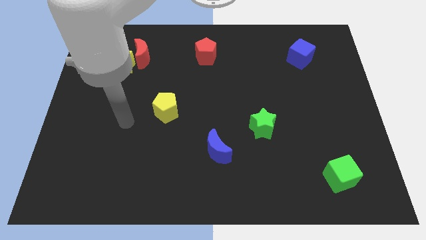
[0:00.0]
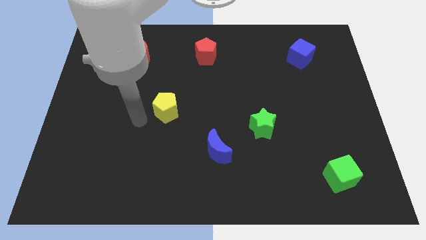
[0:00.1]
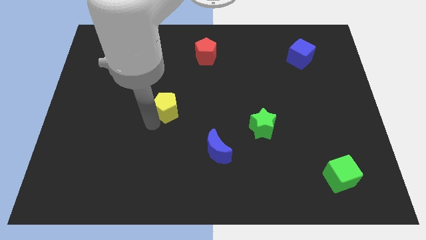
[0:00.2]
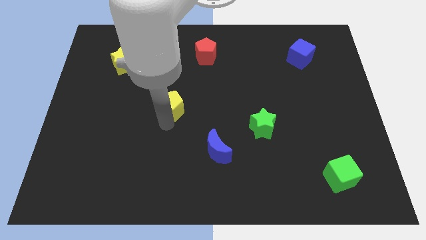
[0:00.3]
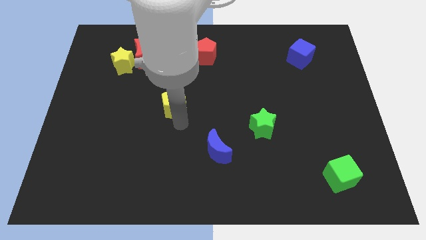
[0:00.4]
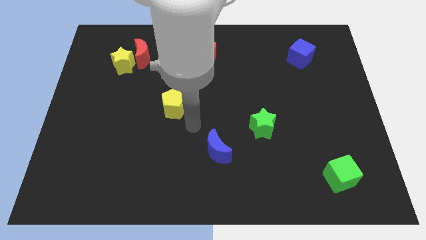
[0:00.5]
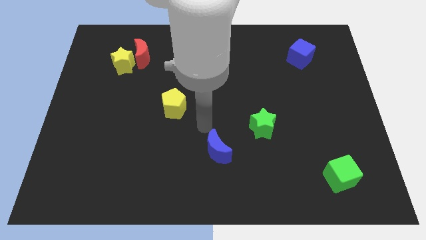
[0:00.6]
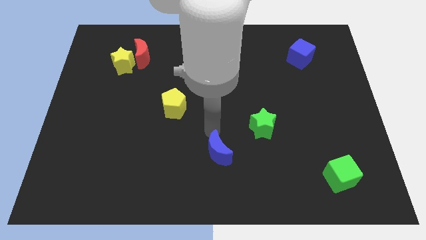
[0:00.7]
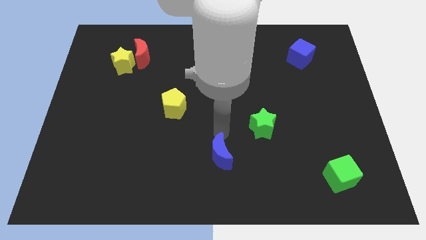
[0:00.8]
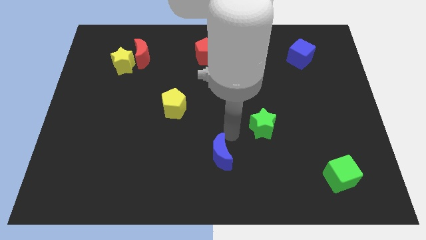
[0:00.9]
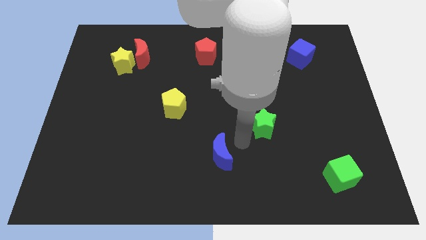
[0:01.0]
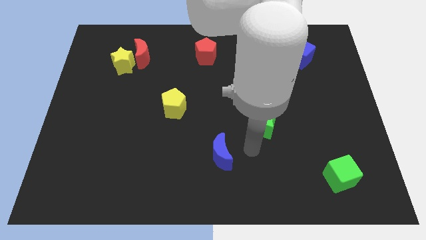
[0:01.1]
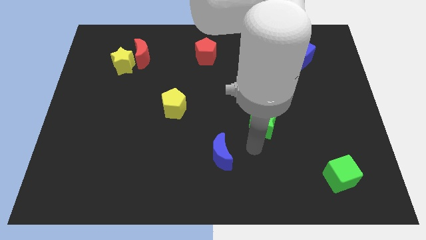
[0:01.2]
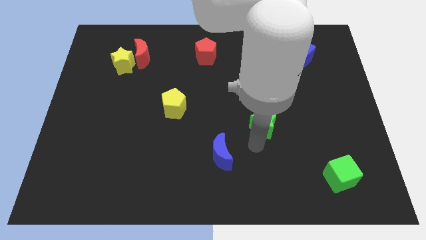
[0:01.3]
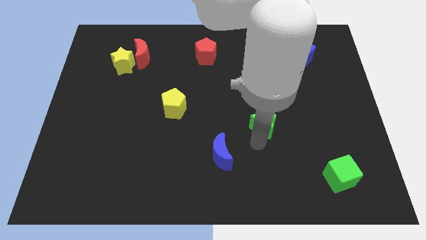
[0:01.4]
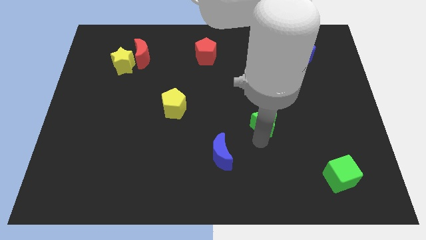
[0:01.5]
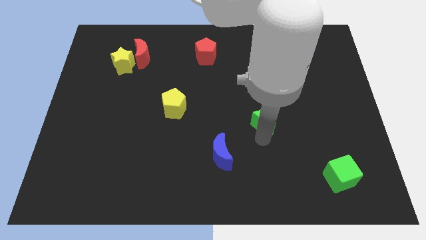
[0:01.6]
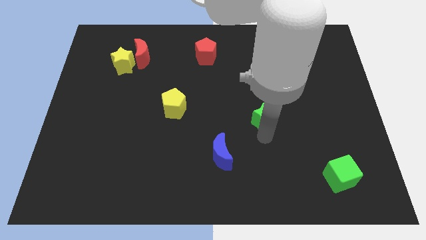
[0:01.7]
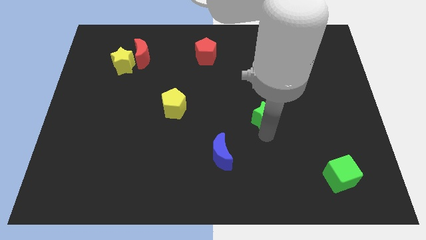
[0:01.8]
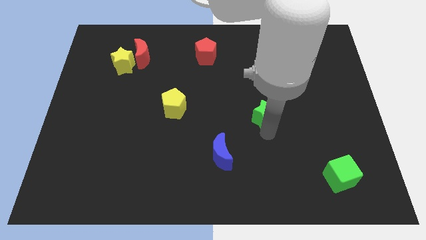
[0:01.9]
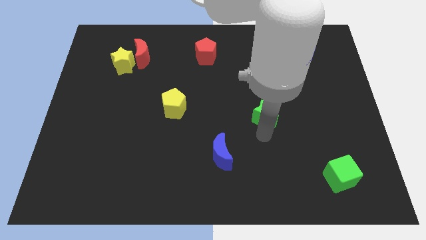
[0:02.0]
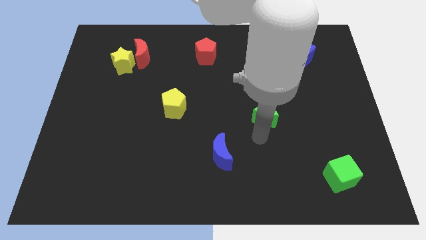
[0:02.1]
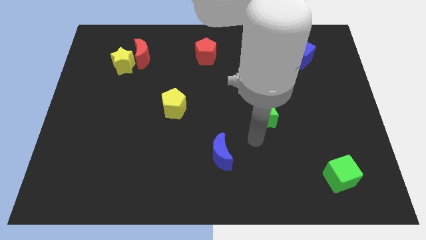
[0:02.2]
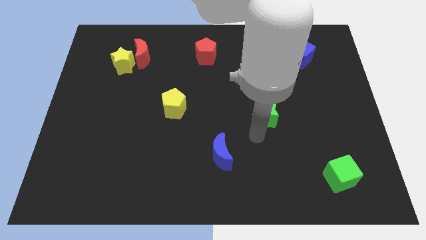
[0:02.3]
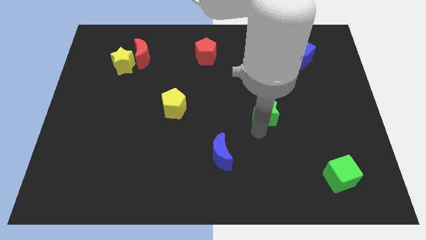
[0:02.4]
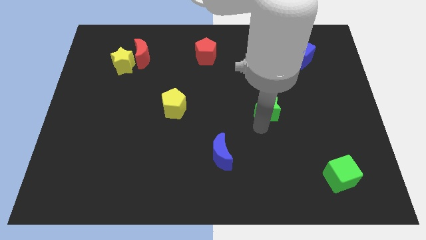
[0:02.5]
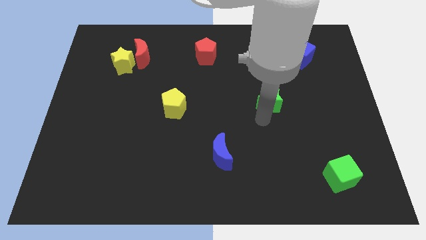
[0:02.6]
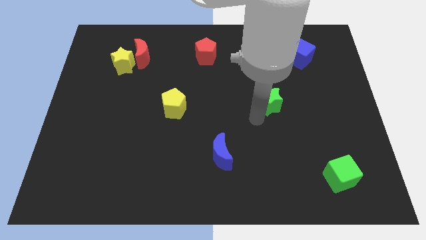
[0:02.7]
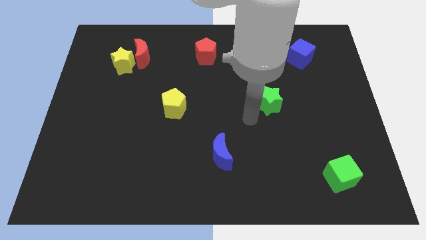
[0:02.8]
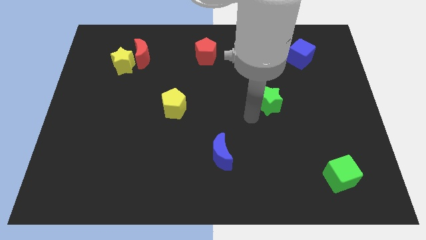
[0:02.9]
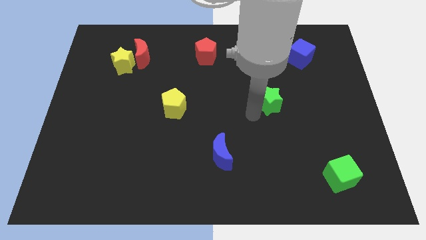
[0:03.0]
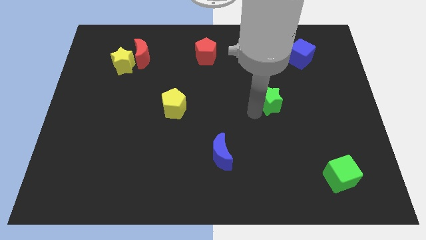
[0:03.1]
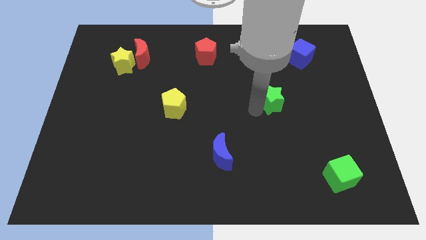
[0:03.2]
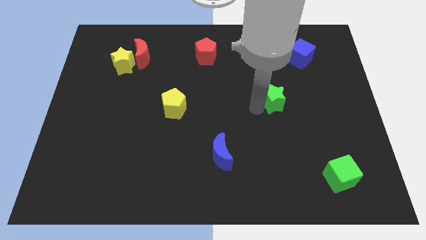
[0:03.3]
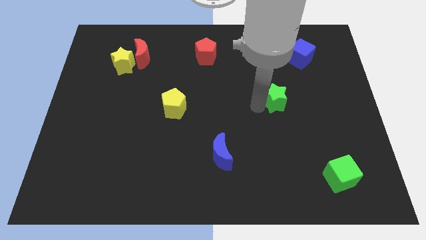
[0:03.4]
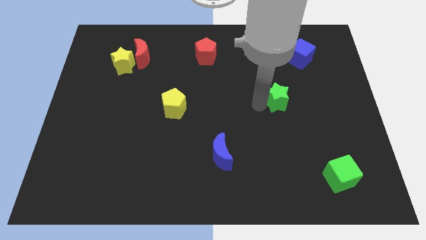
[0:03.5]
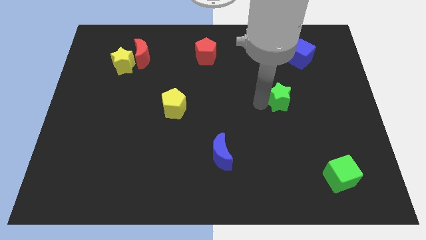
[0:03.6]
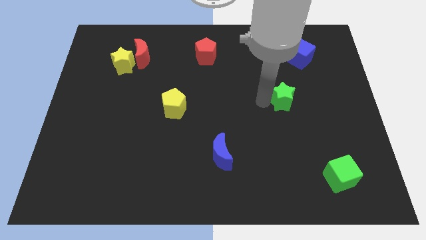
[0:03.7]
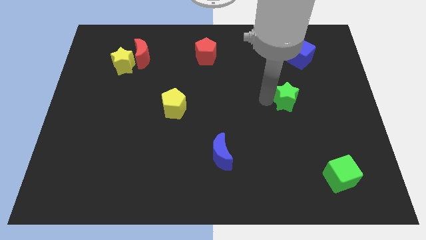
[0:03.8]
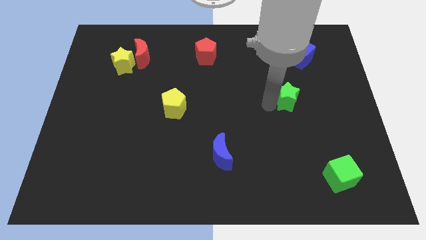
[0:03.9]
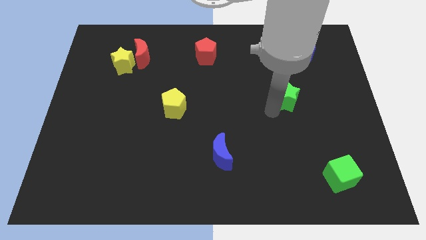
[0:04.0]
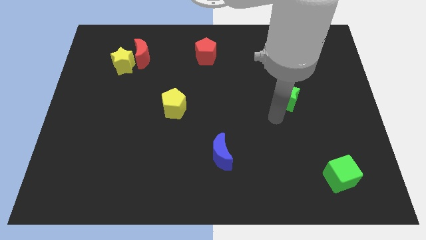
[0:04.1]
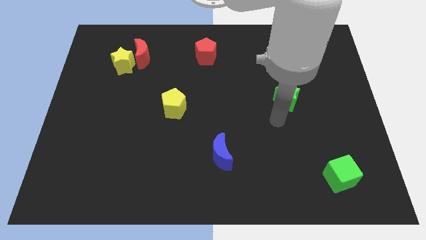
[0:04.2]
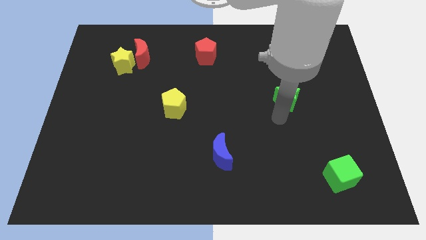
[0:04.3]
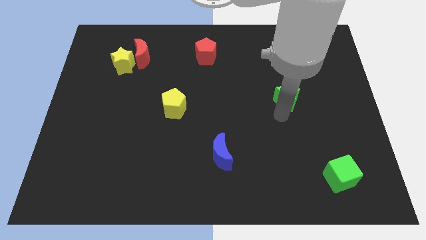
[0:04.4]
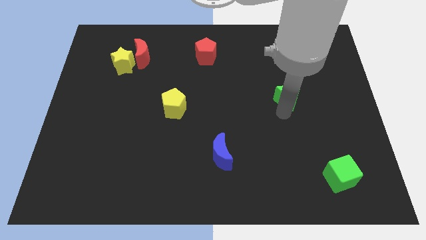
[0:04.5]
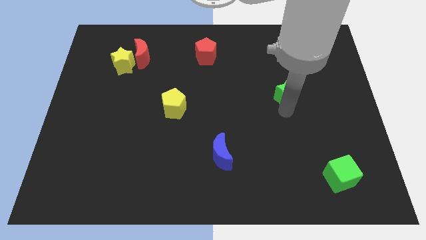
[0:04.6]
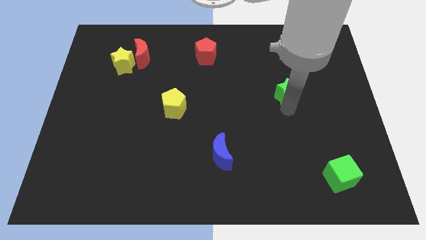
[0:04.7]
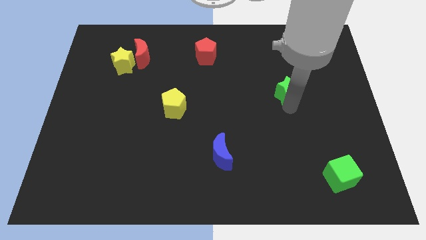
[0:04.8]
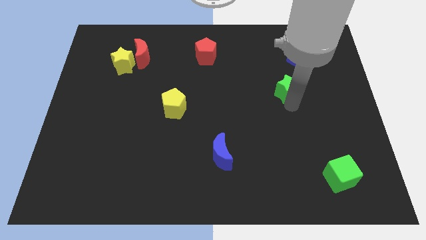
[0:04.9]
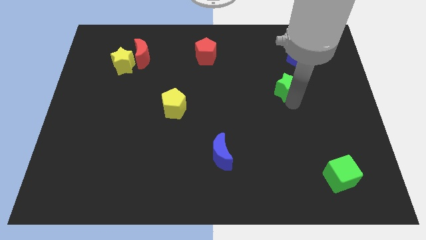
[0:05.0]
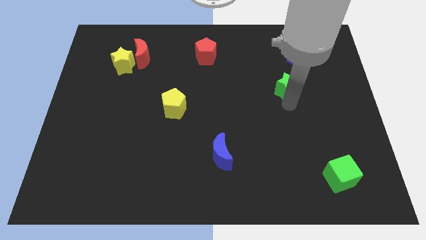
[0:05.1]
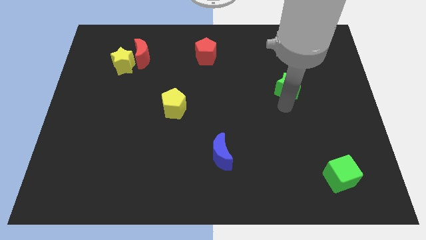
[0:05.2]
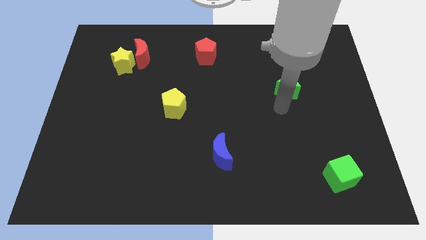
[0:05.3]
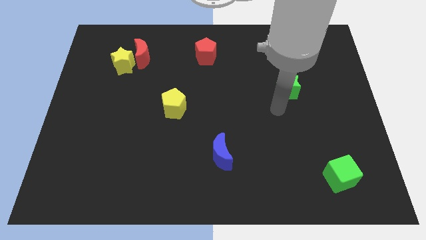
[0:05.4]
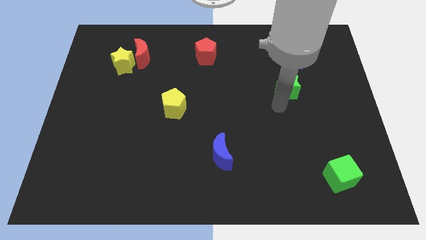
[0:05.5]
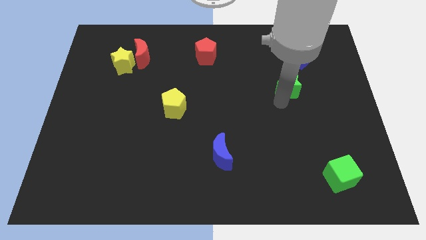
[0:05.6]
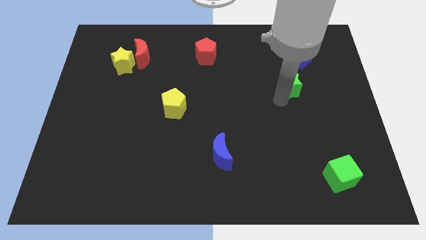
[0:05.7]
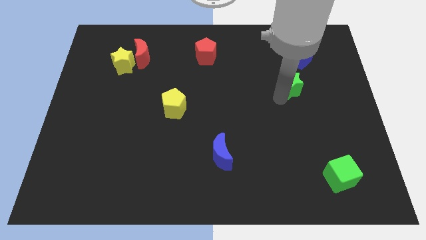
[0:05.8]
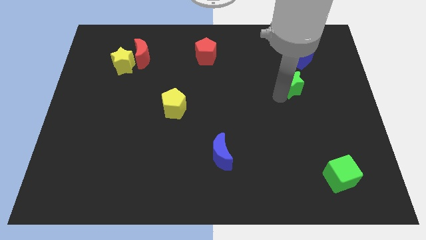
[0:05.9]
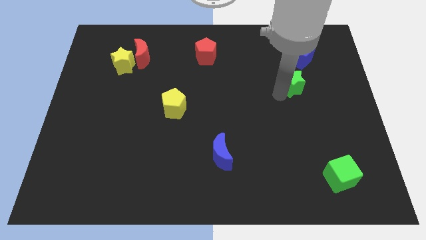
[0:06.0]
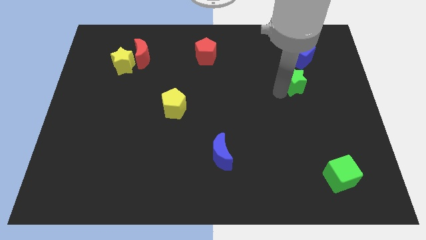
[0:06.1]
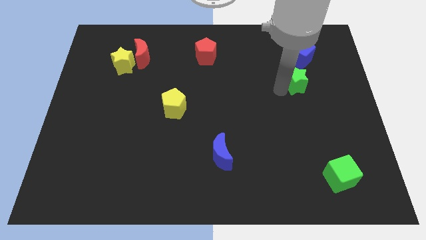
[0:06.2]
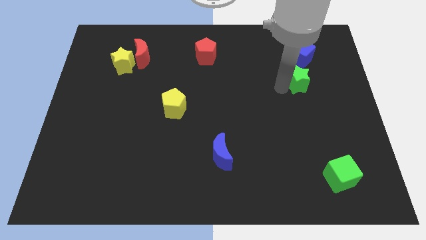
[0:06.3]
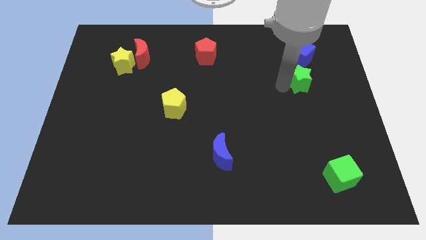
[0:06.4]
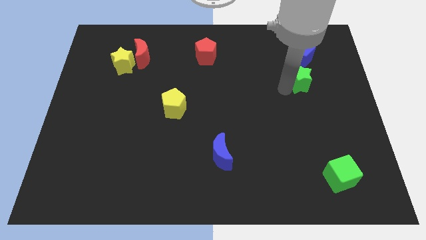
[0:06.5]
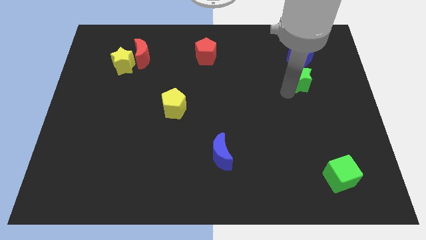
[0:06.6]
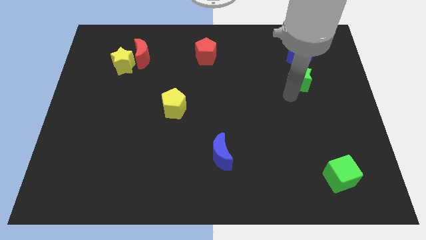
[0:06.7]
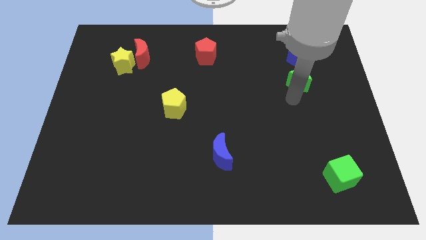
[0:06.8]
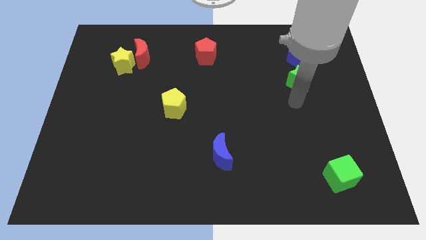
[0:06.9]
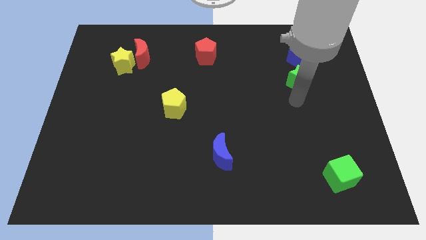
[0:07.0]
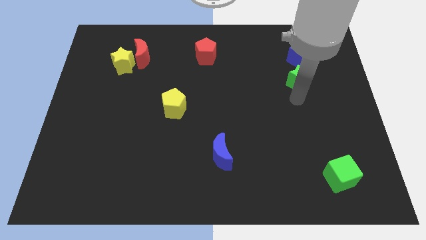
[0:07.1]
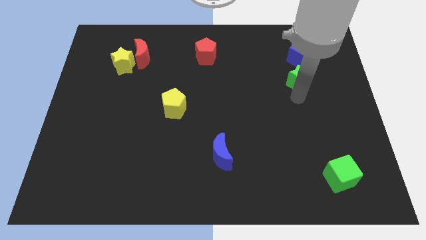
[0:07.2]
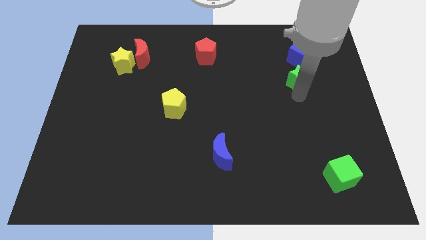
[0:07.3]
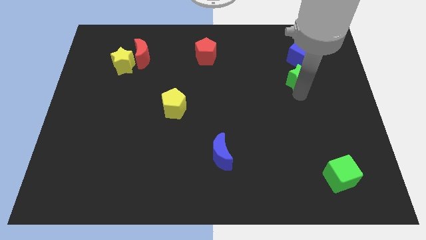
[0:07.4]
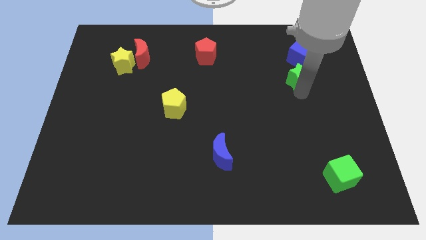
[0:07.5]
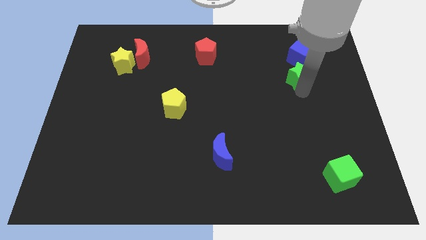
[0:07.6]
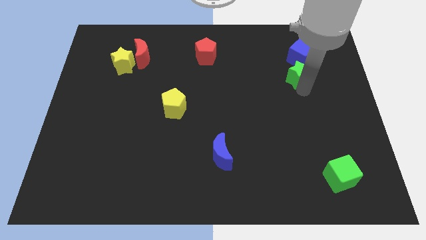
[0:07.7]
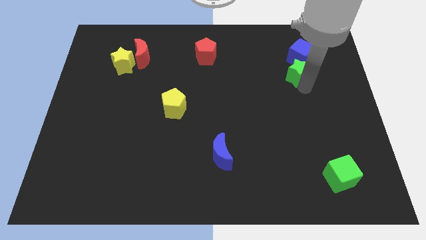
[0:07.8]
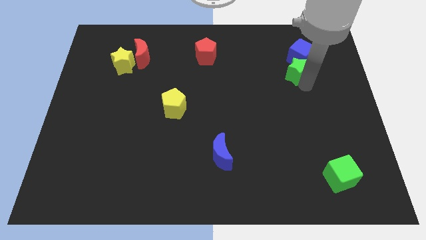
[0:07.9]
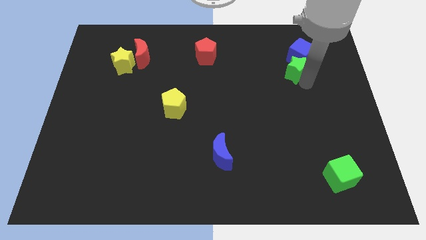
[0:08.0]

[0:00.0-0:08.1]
slide the green star next to the blue cube
